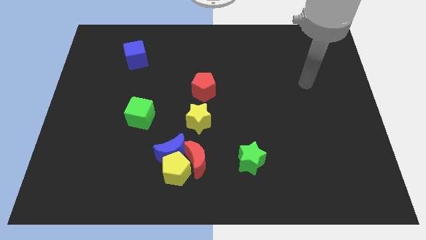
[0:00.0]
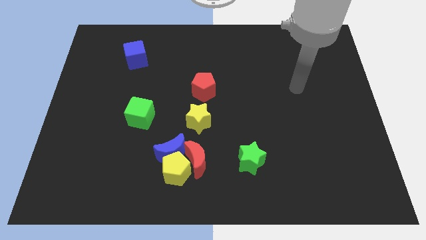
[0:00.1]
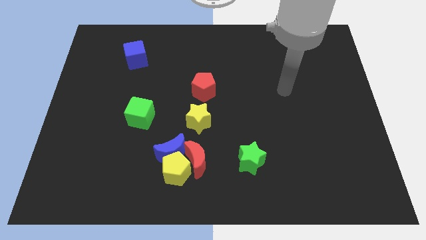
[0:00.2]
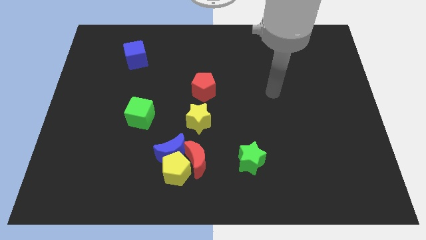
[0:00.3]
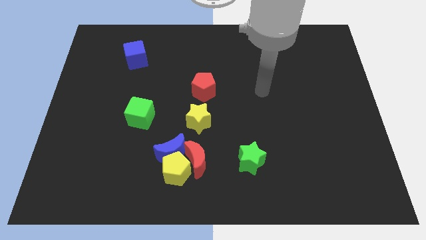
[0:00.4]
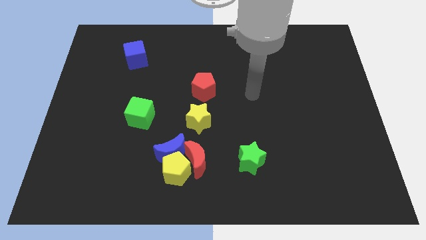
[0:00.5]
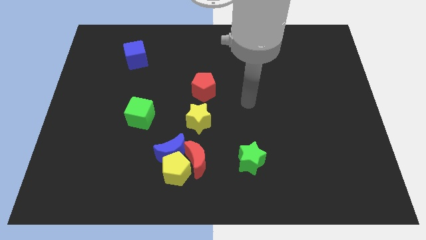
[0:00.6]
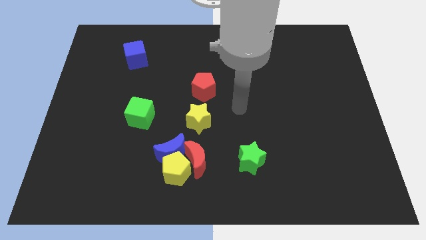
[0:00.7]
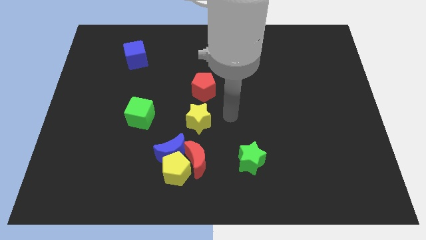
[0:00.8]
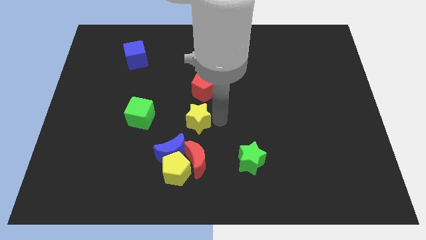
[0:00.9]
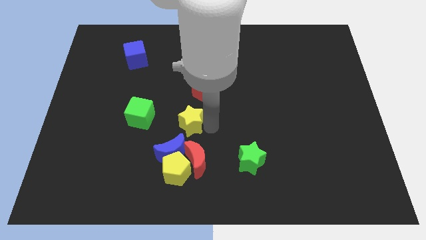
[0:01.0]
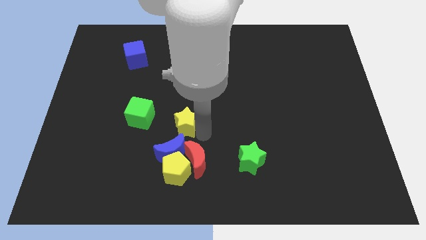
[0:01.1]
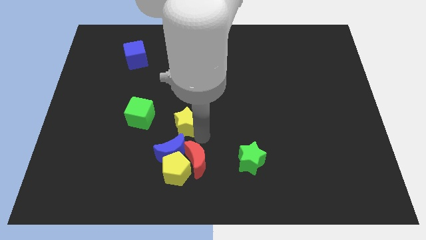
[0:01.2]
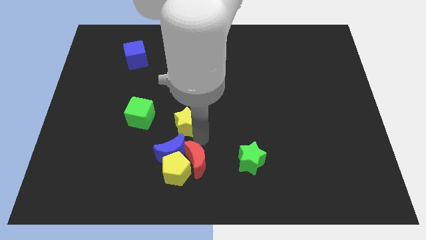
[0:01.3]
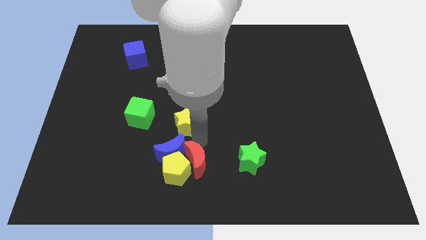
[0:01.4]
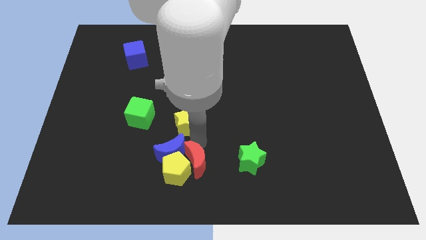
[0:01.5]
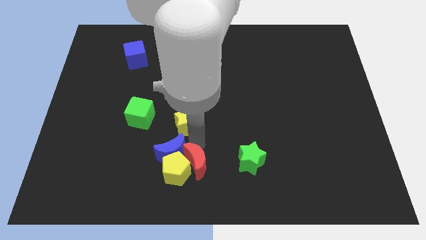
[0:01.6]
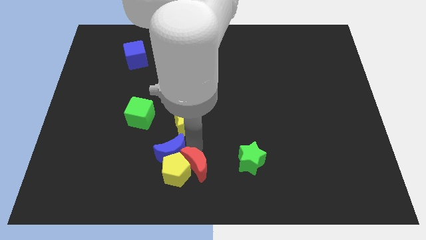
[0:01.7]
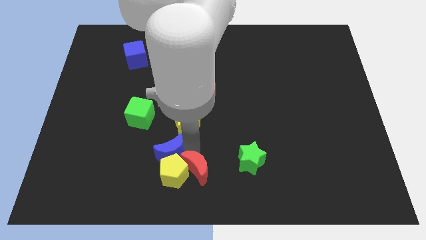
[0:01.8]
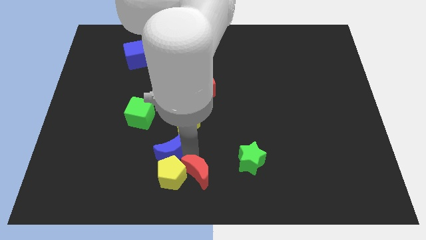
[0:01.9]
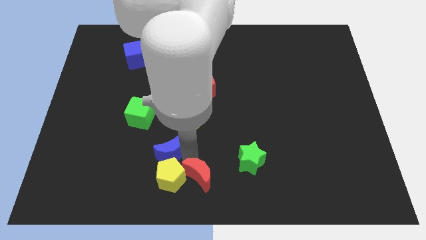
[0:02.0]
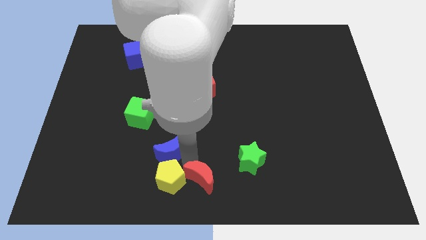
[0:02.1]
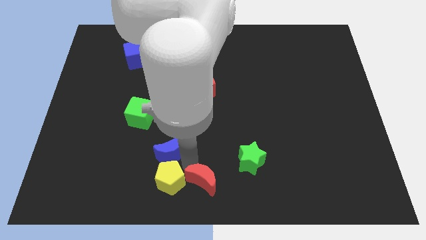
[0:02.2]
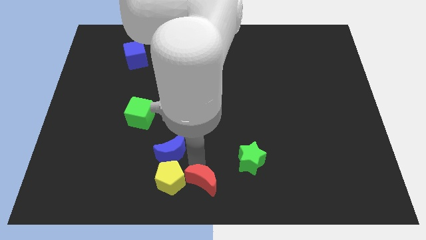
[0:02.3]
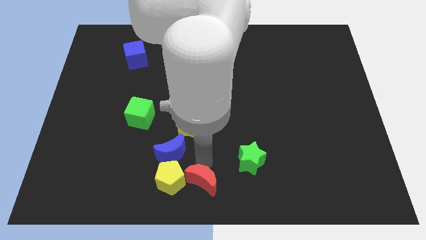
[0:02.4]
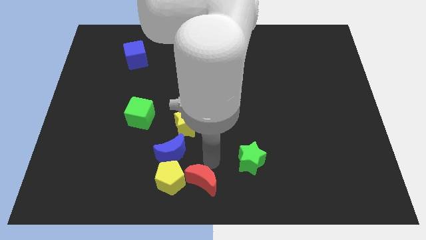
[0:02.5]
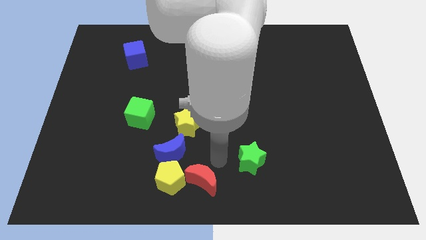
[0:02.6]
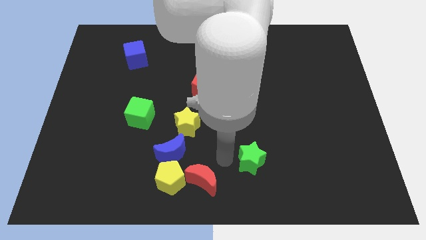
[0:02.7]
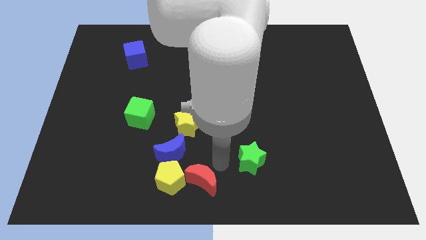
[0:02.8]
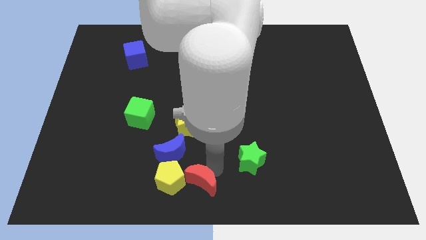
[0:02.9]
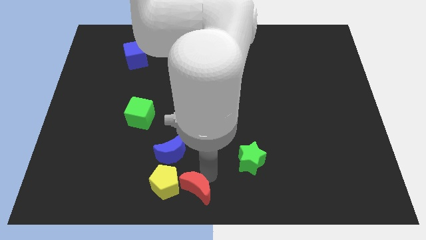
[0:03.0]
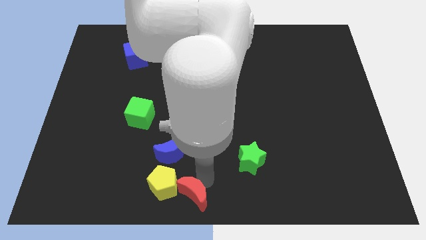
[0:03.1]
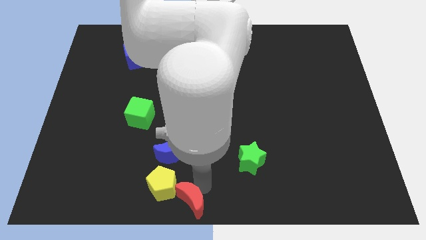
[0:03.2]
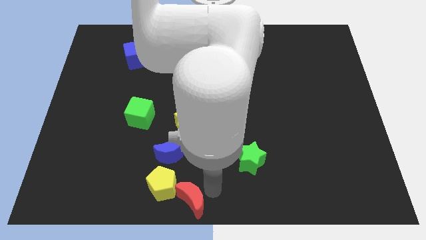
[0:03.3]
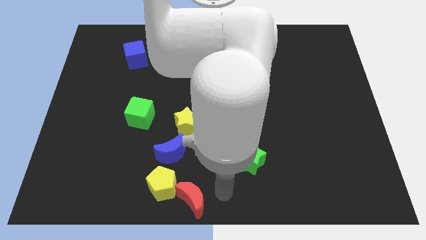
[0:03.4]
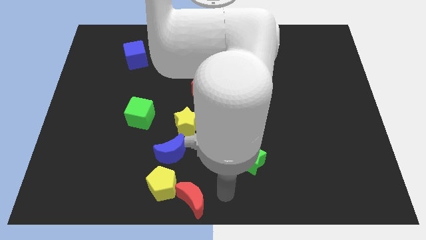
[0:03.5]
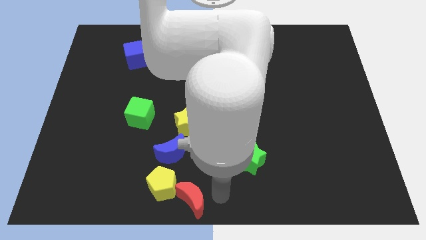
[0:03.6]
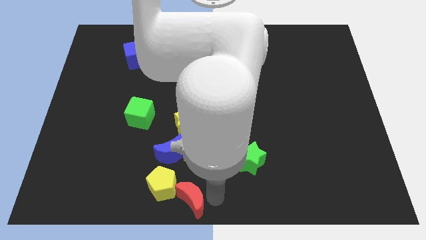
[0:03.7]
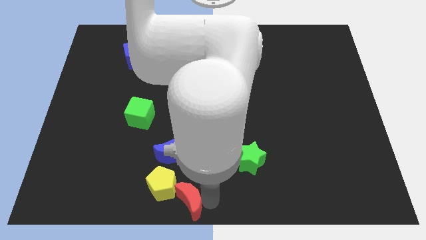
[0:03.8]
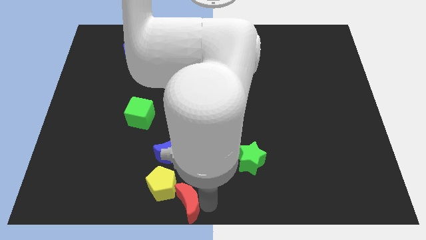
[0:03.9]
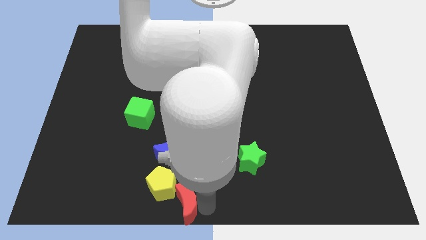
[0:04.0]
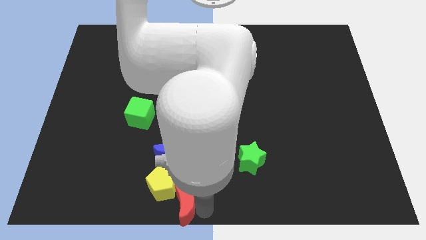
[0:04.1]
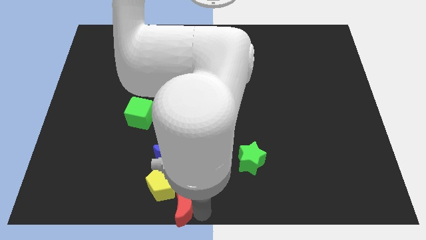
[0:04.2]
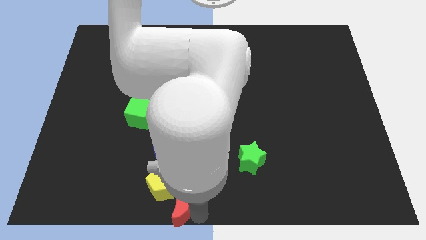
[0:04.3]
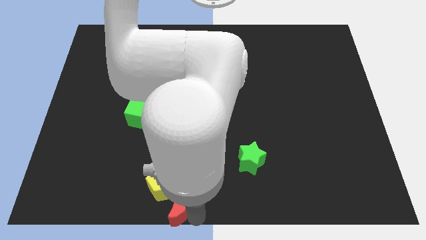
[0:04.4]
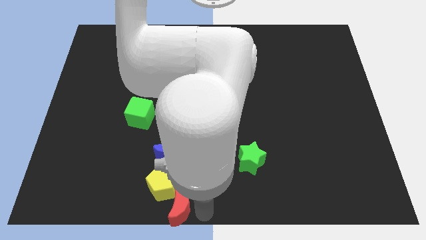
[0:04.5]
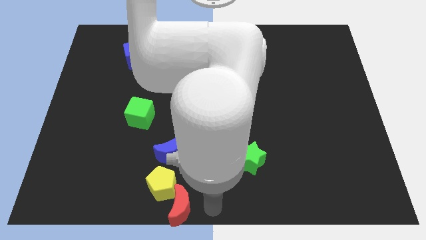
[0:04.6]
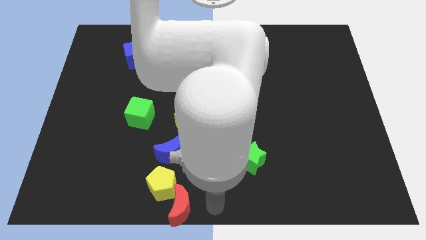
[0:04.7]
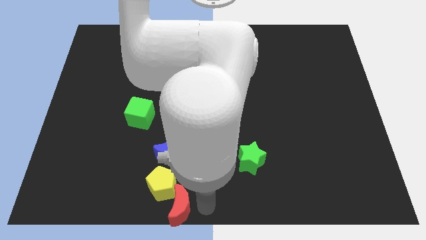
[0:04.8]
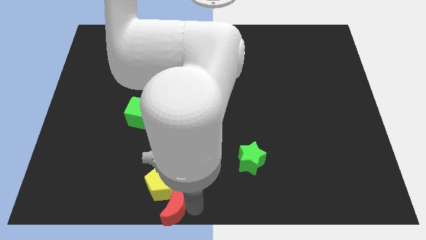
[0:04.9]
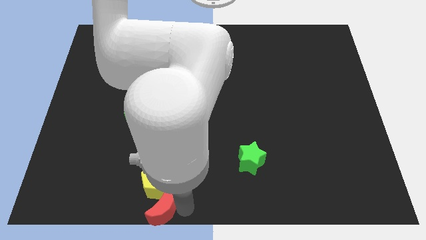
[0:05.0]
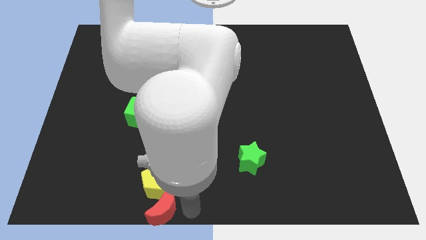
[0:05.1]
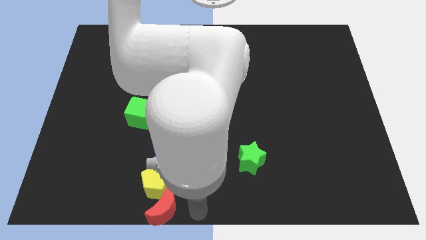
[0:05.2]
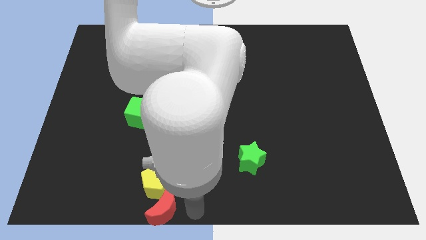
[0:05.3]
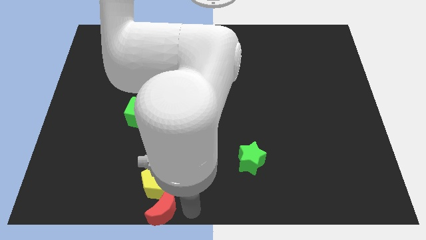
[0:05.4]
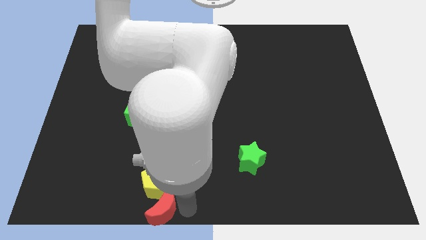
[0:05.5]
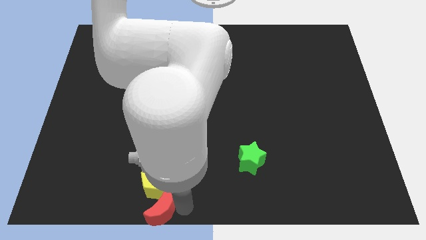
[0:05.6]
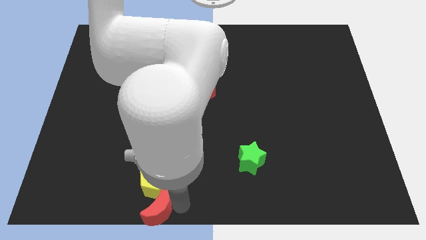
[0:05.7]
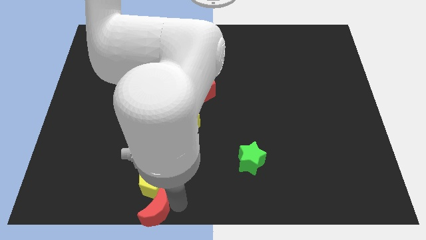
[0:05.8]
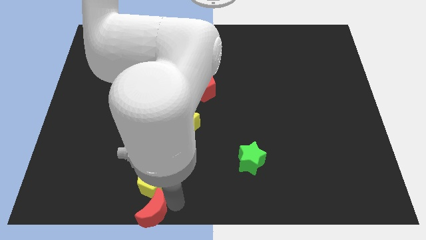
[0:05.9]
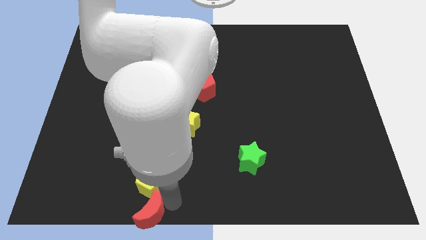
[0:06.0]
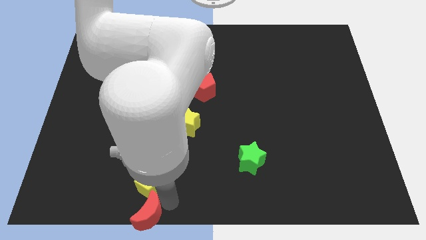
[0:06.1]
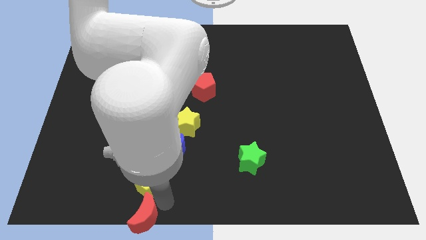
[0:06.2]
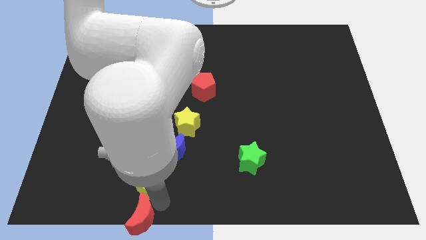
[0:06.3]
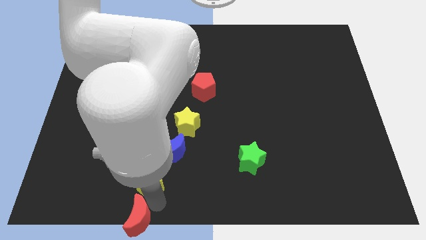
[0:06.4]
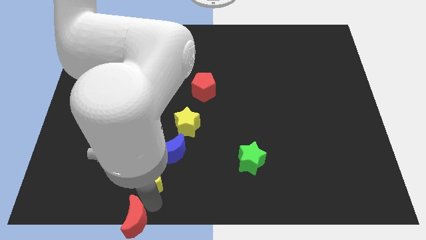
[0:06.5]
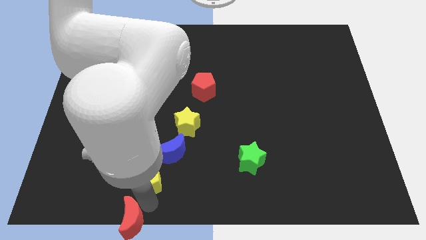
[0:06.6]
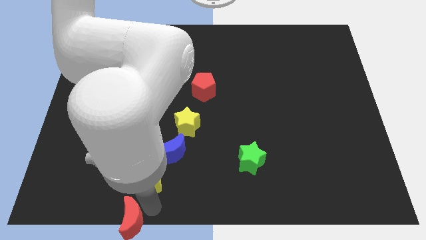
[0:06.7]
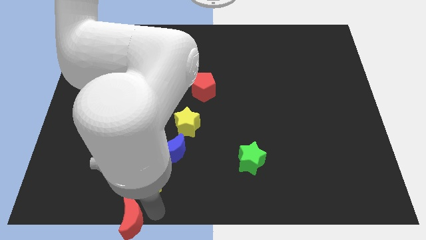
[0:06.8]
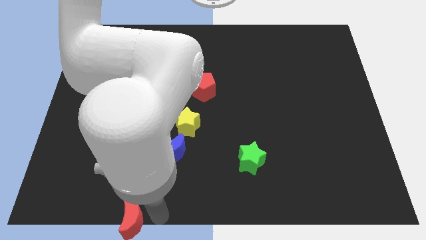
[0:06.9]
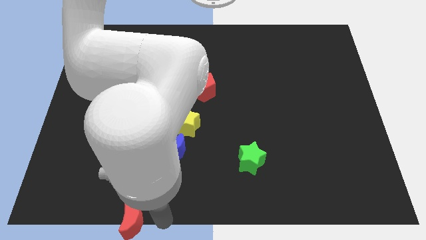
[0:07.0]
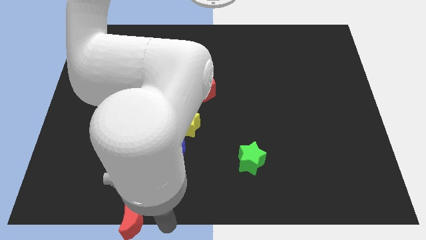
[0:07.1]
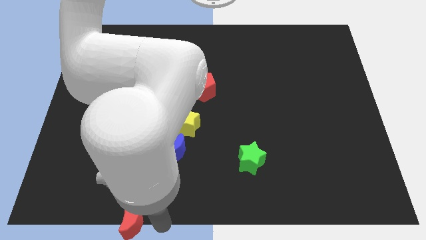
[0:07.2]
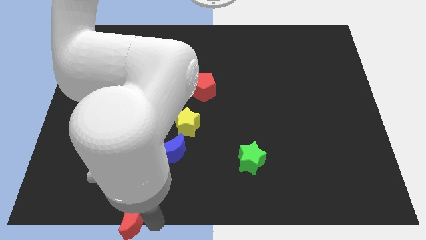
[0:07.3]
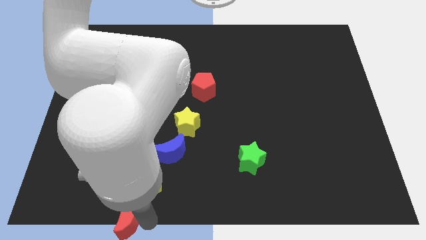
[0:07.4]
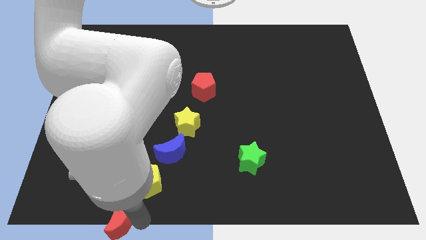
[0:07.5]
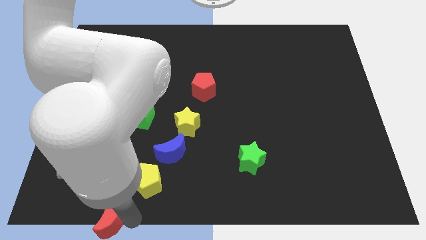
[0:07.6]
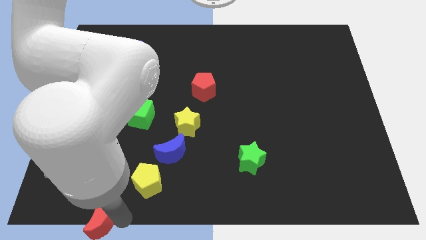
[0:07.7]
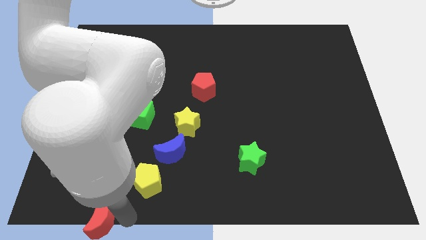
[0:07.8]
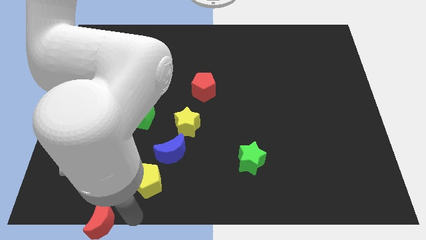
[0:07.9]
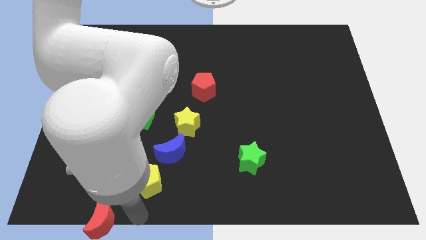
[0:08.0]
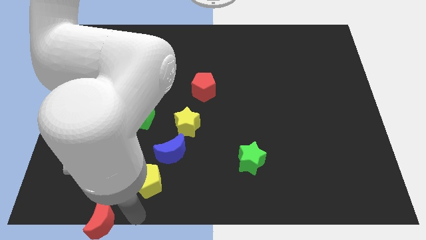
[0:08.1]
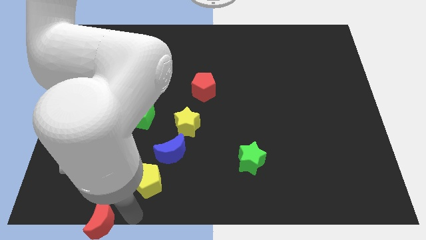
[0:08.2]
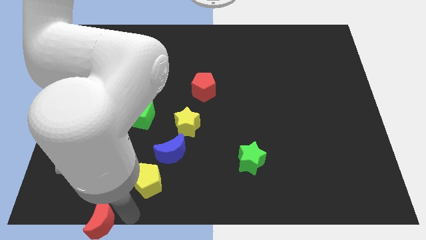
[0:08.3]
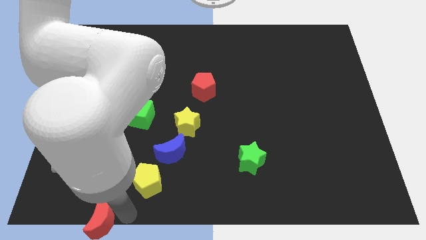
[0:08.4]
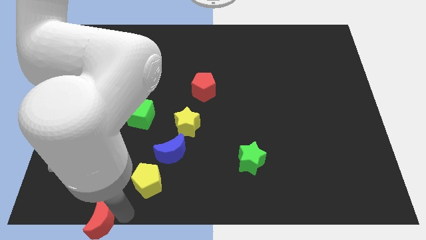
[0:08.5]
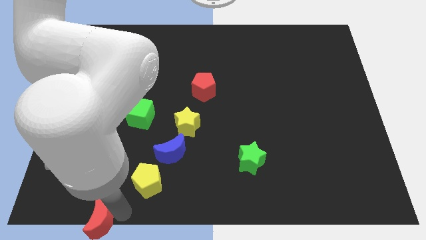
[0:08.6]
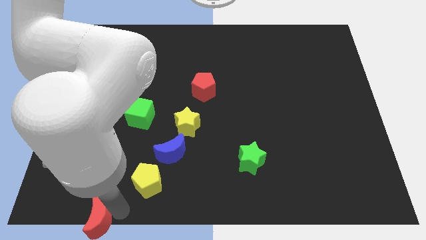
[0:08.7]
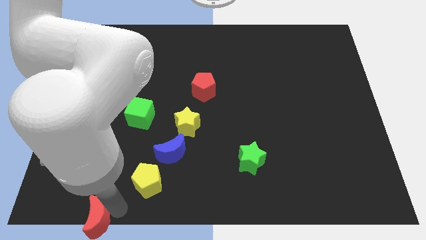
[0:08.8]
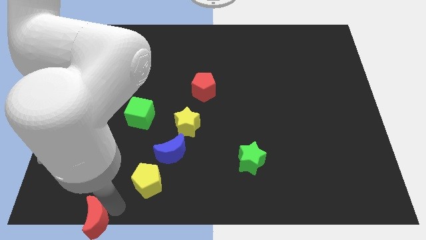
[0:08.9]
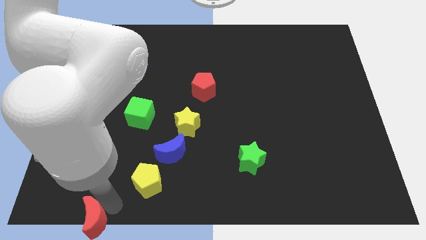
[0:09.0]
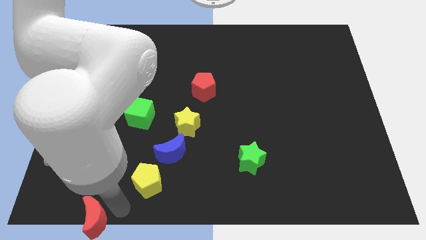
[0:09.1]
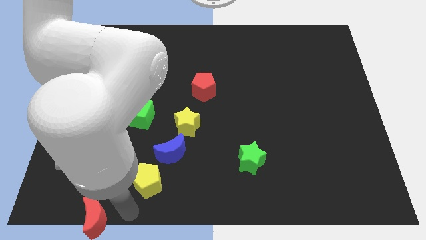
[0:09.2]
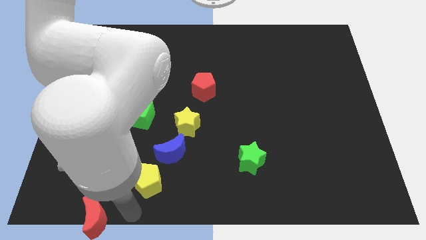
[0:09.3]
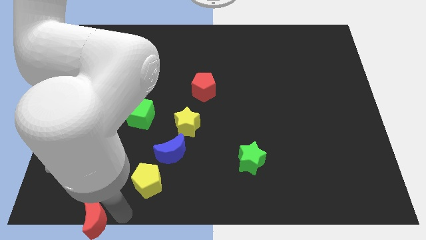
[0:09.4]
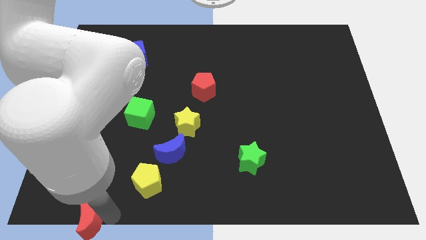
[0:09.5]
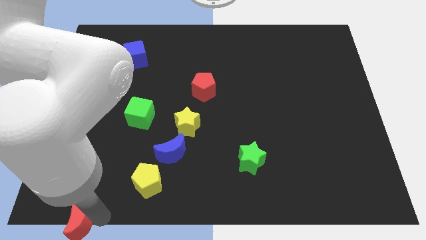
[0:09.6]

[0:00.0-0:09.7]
put the red moon to the bottom left of the board
